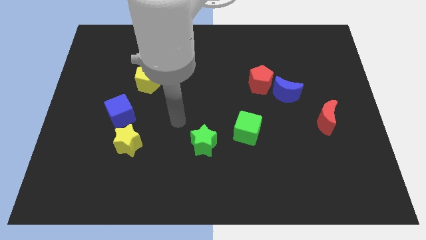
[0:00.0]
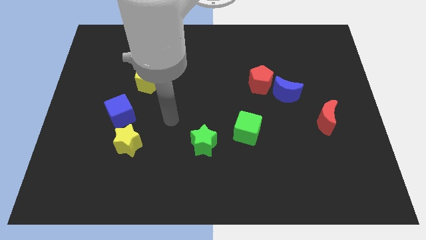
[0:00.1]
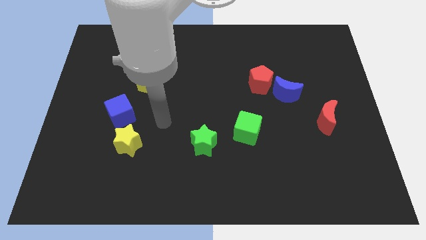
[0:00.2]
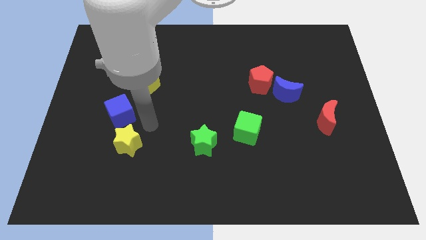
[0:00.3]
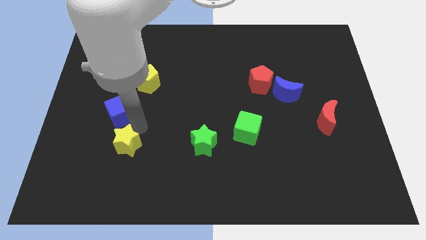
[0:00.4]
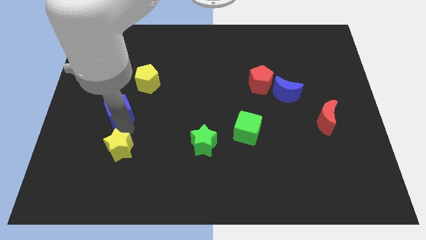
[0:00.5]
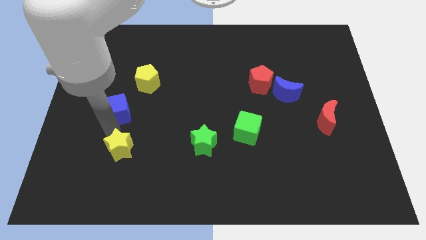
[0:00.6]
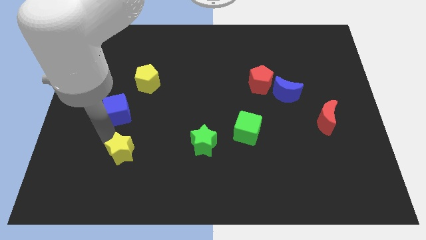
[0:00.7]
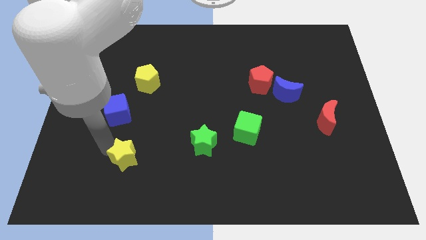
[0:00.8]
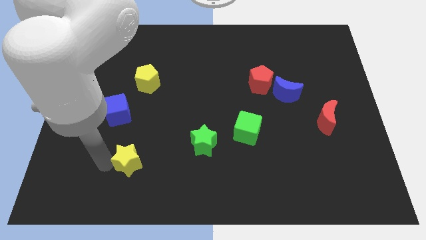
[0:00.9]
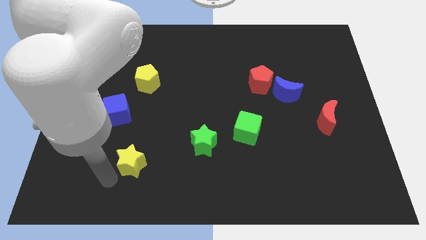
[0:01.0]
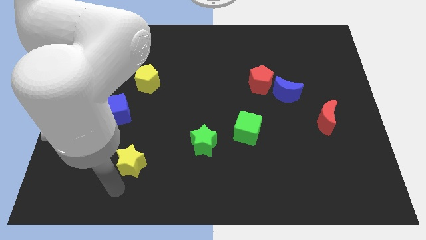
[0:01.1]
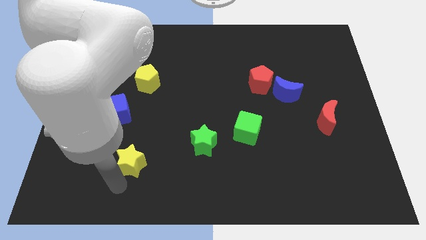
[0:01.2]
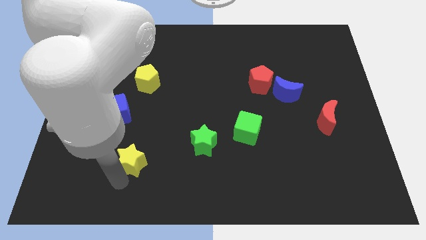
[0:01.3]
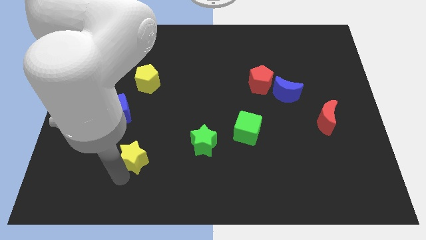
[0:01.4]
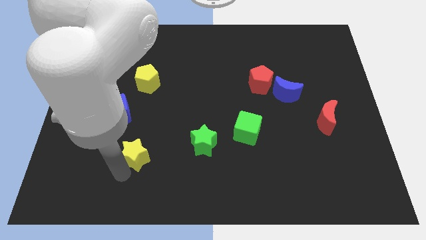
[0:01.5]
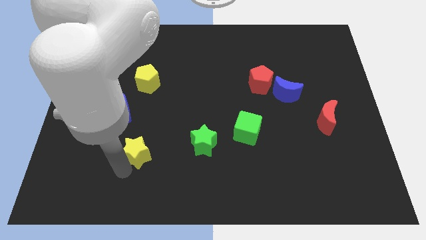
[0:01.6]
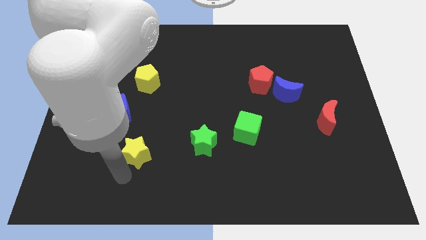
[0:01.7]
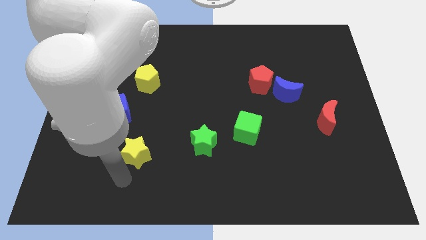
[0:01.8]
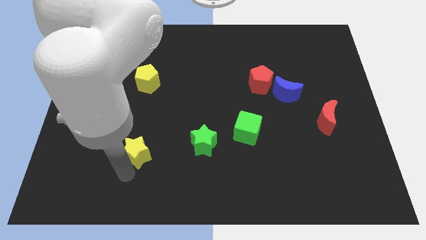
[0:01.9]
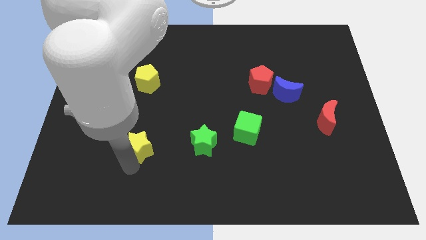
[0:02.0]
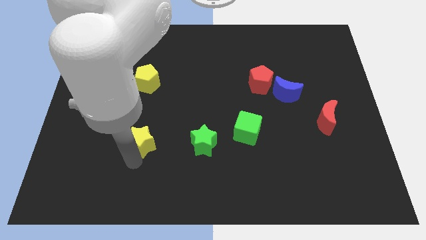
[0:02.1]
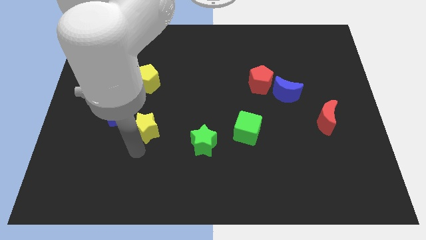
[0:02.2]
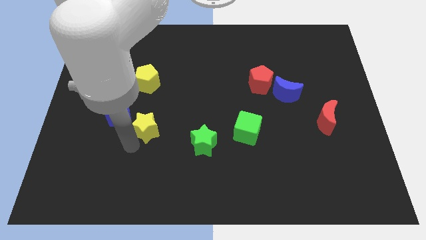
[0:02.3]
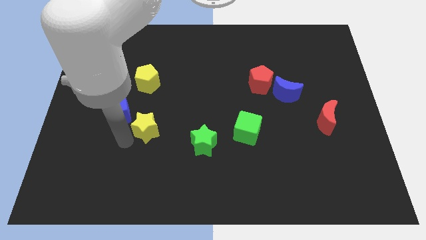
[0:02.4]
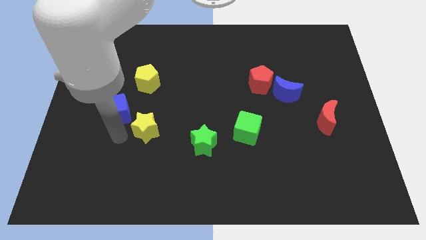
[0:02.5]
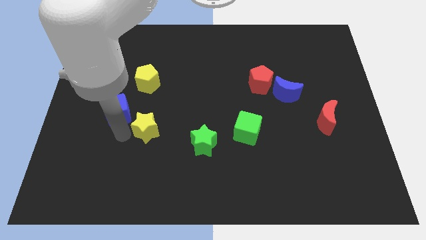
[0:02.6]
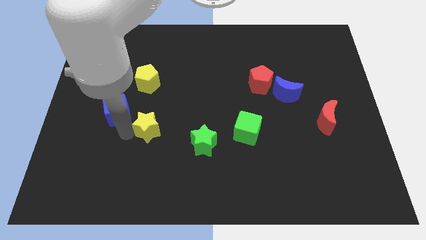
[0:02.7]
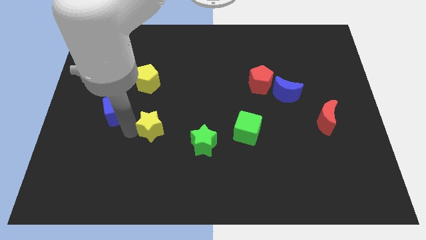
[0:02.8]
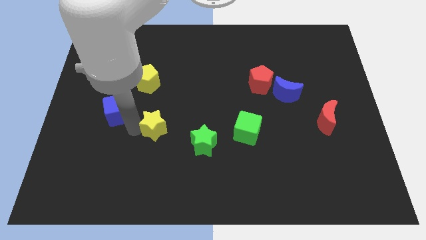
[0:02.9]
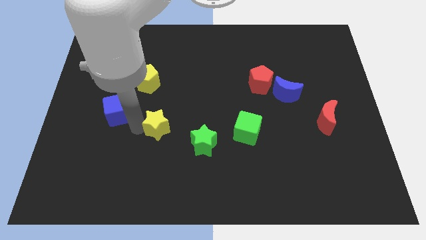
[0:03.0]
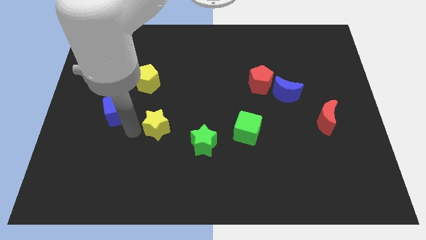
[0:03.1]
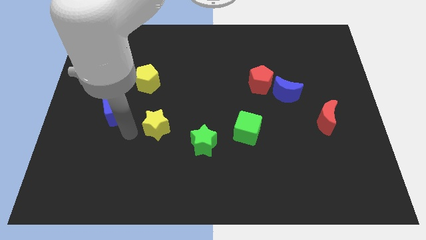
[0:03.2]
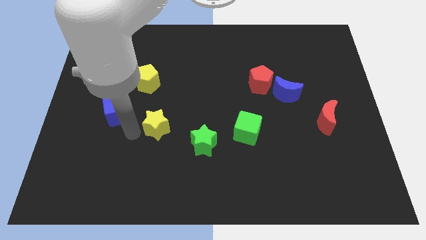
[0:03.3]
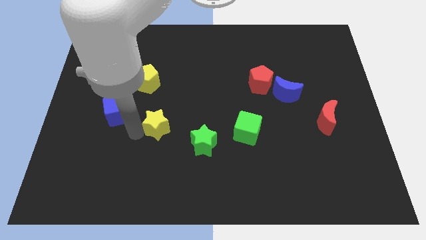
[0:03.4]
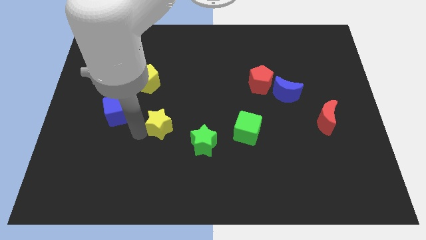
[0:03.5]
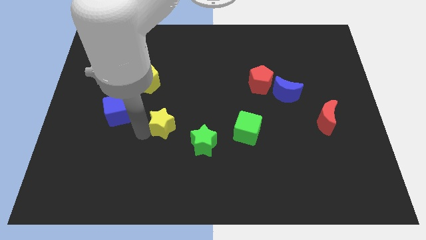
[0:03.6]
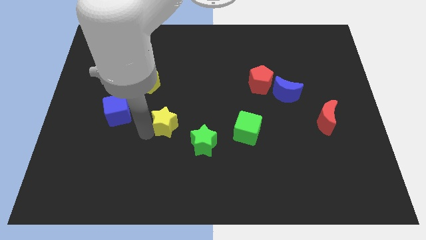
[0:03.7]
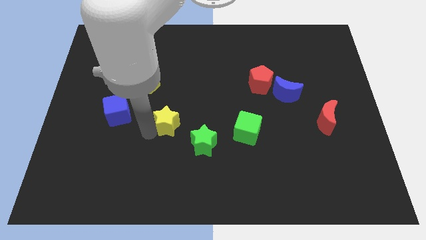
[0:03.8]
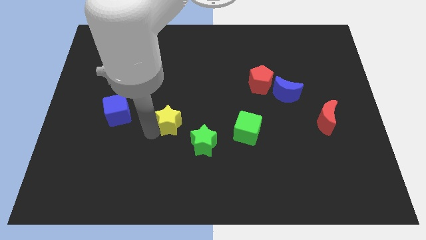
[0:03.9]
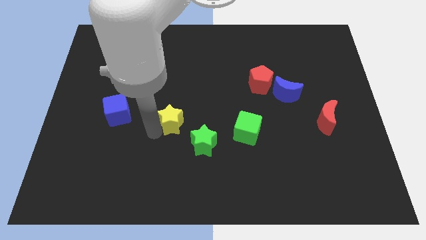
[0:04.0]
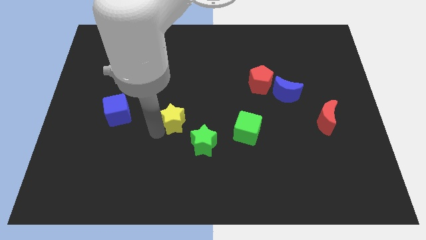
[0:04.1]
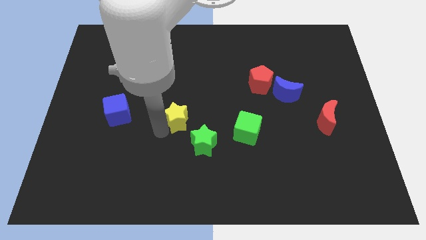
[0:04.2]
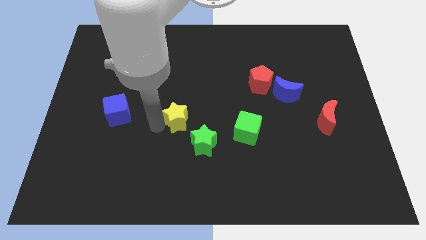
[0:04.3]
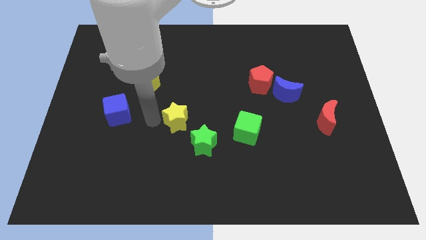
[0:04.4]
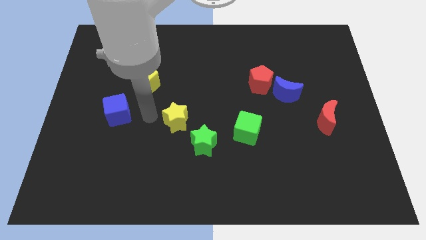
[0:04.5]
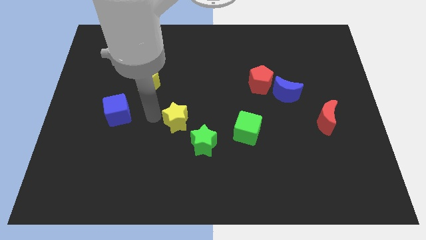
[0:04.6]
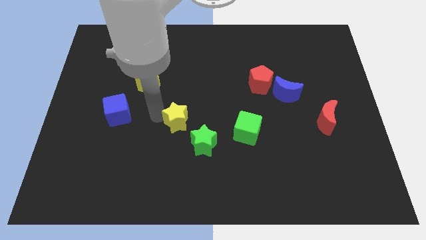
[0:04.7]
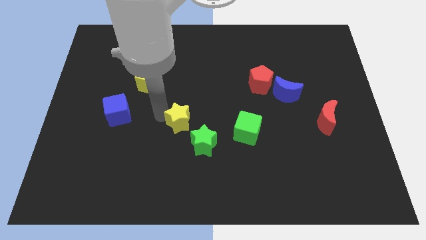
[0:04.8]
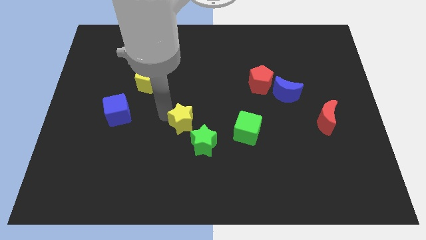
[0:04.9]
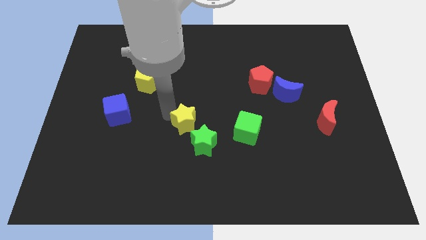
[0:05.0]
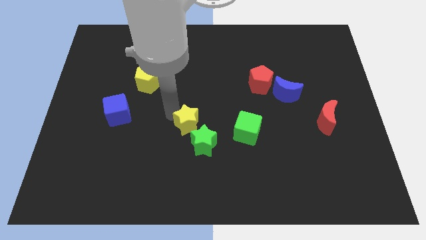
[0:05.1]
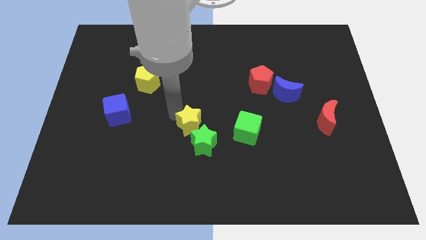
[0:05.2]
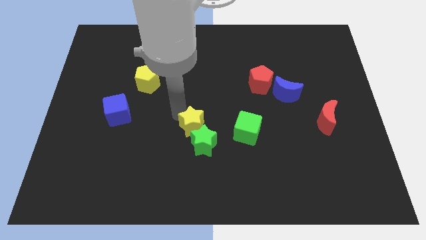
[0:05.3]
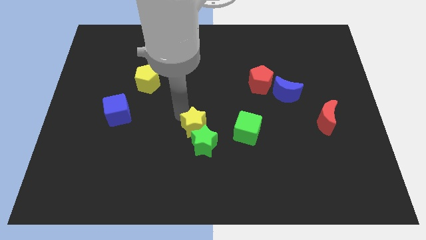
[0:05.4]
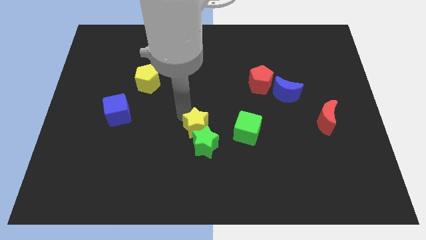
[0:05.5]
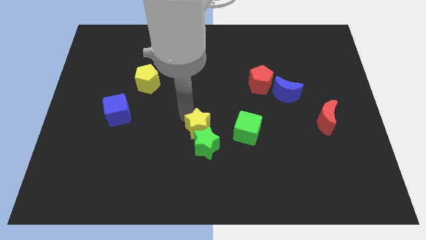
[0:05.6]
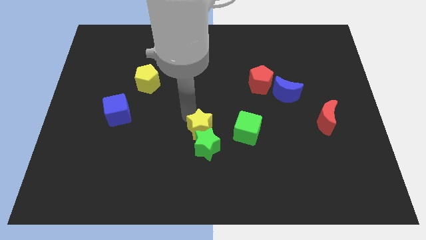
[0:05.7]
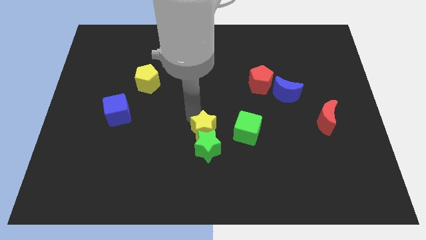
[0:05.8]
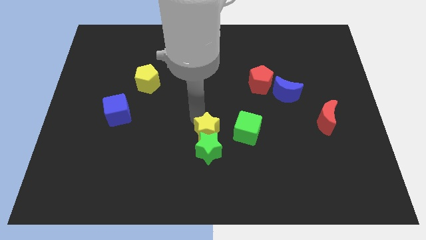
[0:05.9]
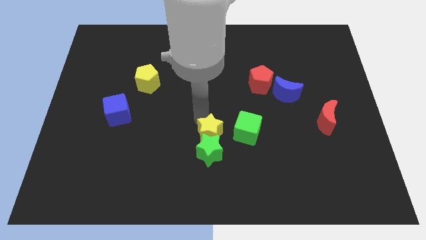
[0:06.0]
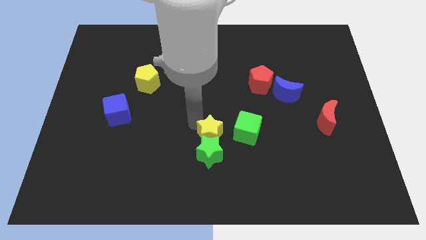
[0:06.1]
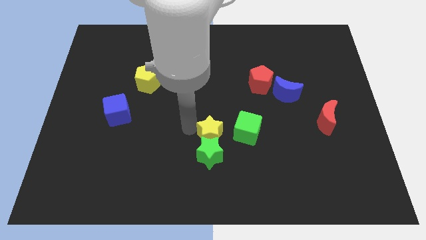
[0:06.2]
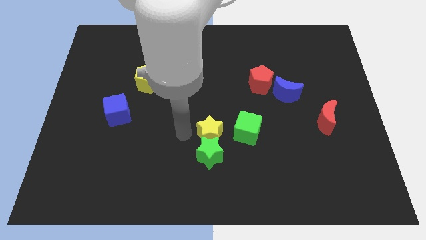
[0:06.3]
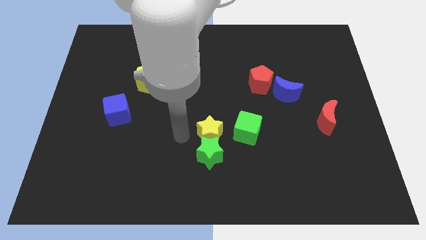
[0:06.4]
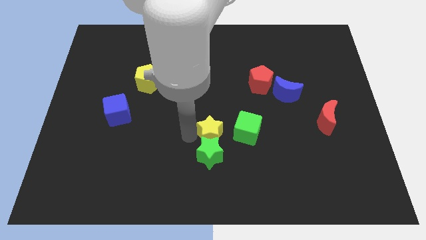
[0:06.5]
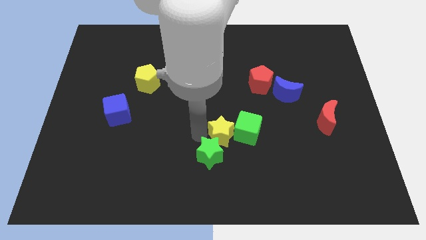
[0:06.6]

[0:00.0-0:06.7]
push the yellow star towards the green cube

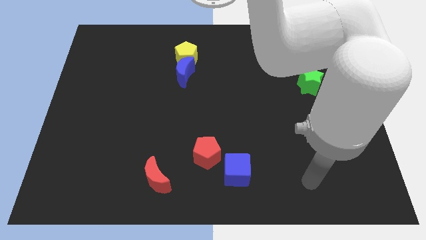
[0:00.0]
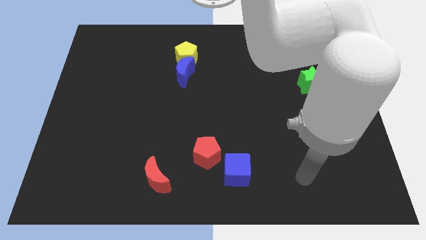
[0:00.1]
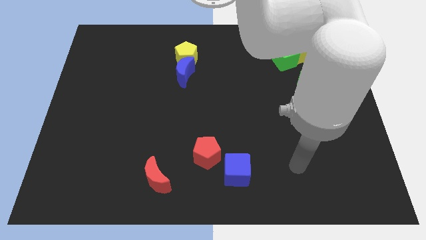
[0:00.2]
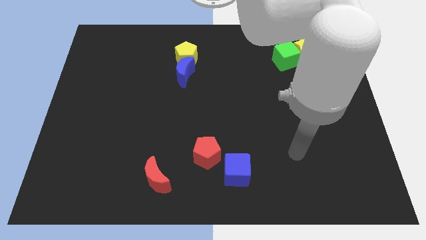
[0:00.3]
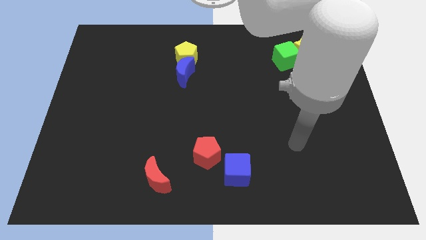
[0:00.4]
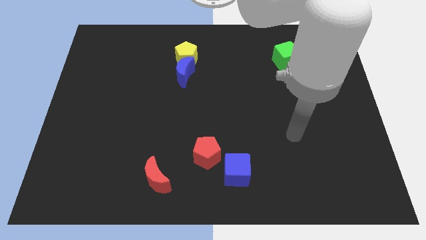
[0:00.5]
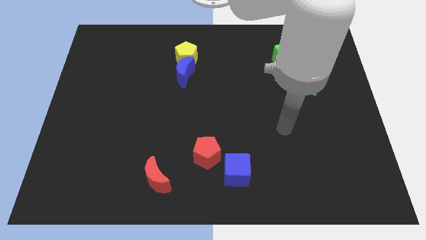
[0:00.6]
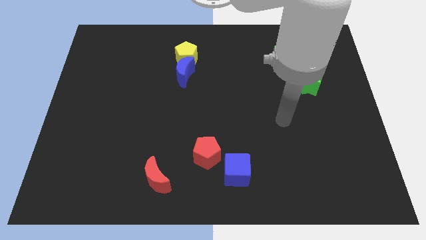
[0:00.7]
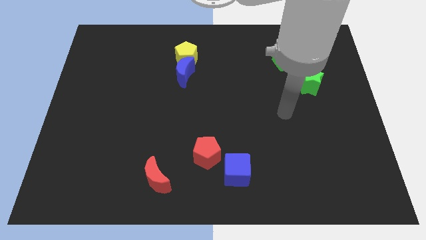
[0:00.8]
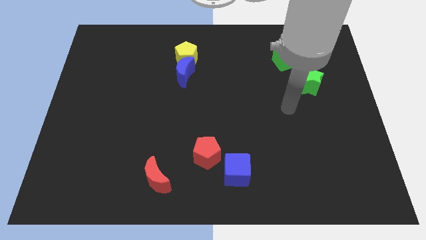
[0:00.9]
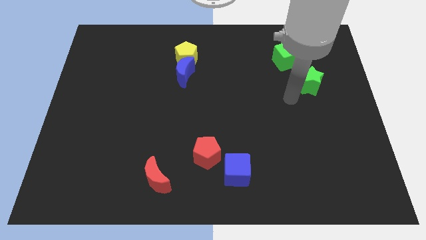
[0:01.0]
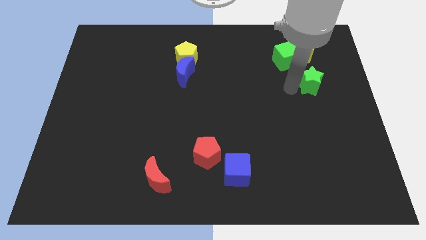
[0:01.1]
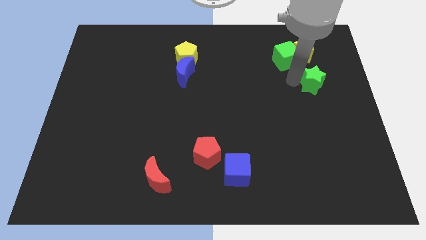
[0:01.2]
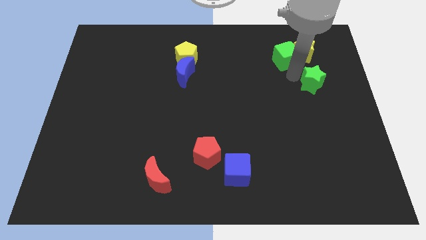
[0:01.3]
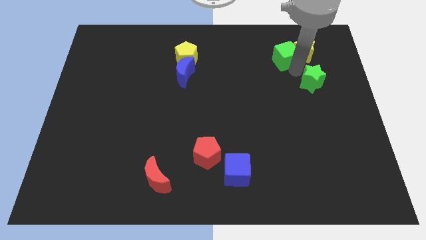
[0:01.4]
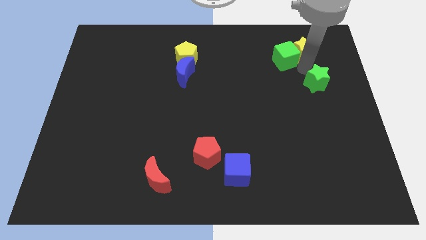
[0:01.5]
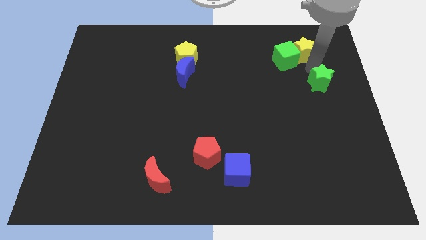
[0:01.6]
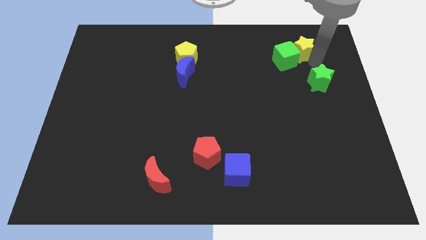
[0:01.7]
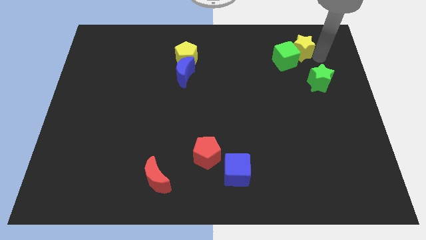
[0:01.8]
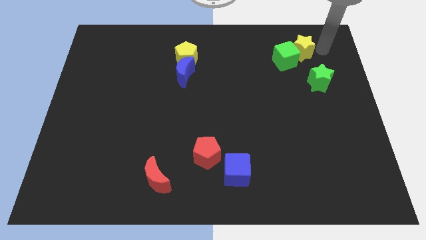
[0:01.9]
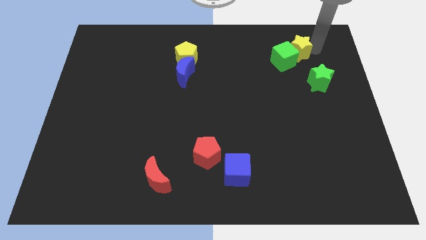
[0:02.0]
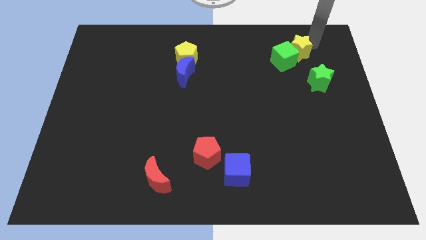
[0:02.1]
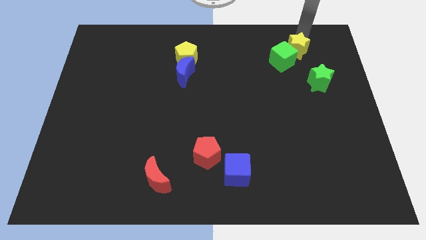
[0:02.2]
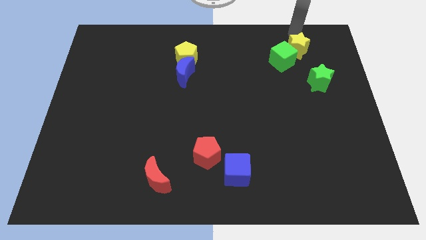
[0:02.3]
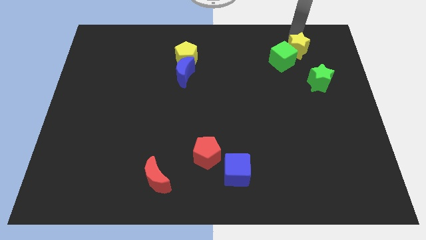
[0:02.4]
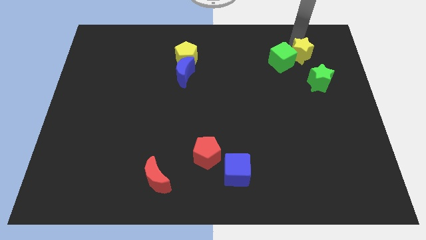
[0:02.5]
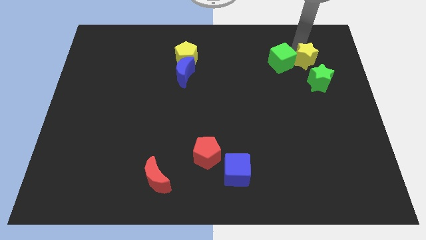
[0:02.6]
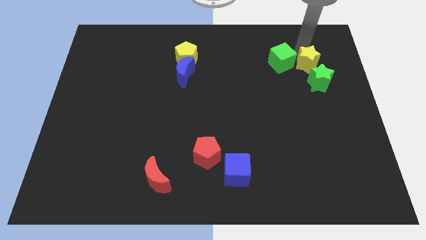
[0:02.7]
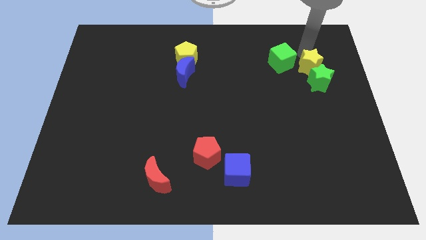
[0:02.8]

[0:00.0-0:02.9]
slide the yellow star next to the green star
